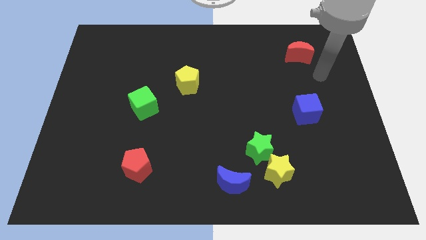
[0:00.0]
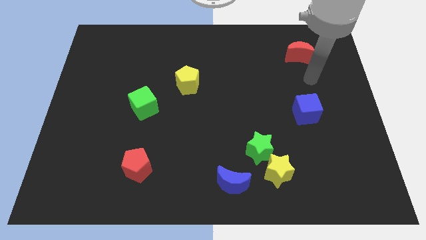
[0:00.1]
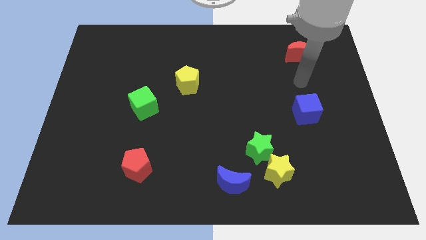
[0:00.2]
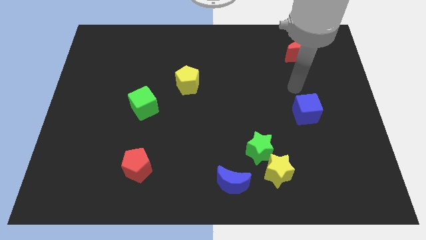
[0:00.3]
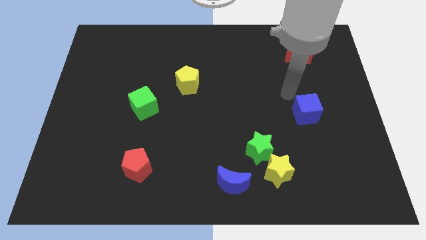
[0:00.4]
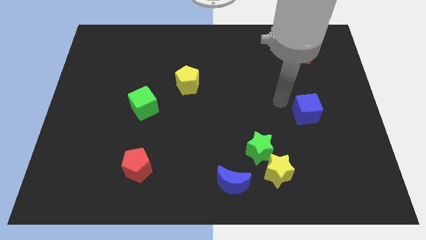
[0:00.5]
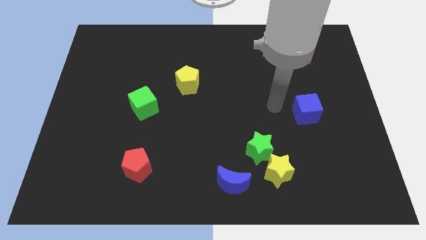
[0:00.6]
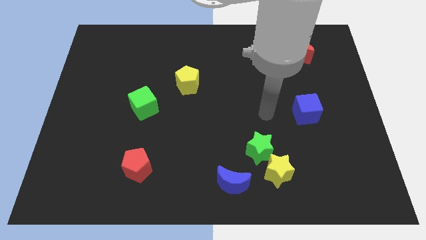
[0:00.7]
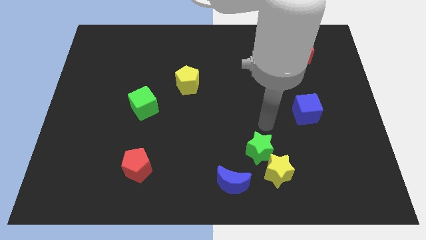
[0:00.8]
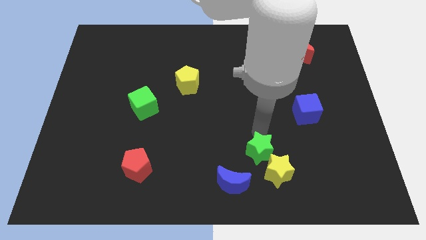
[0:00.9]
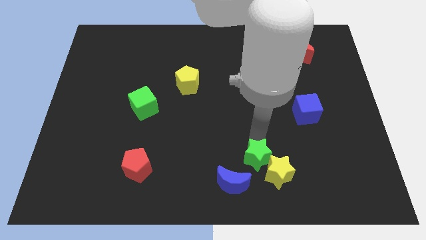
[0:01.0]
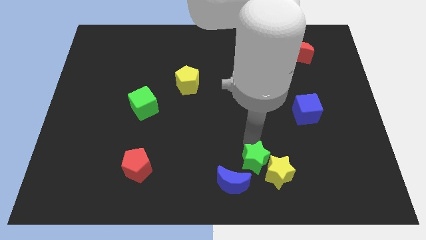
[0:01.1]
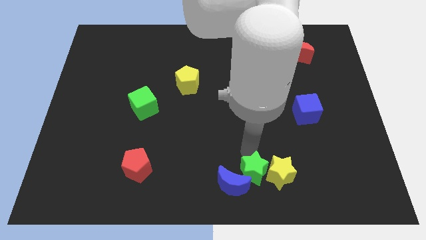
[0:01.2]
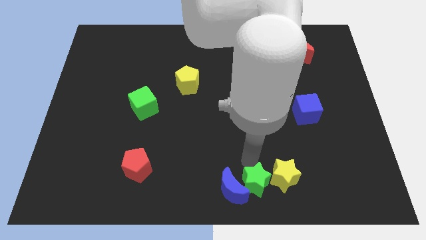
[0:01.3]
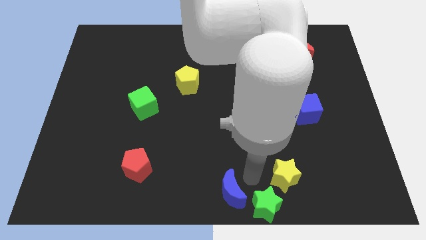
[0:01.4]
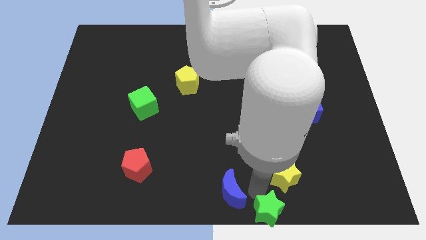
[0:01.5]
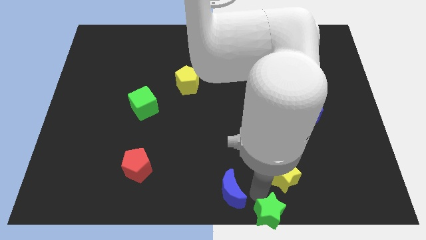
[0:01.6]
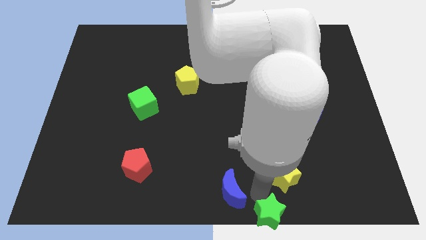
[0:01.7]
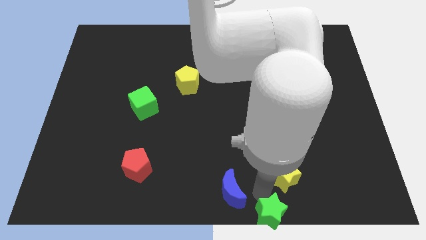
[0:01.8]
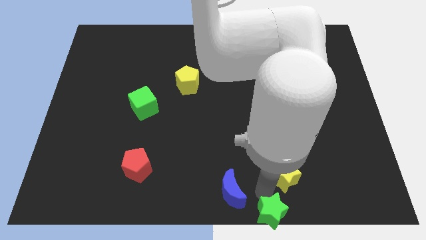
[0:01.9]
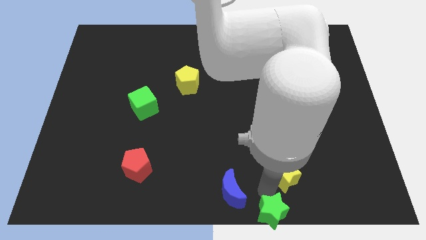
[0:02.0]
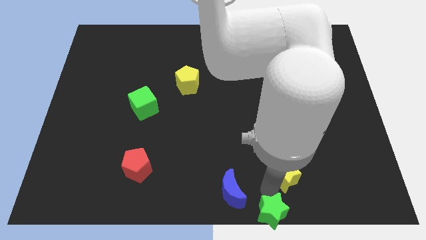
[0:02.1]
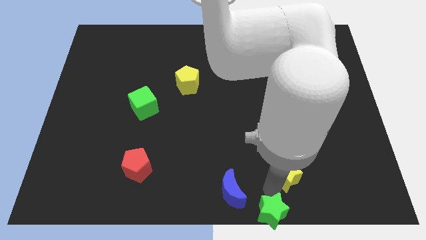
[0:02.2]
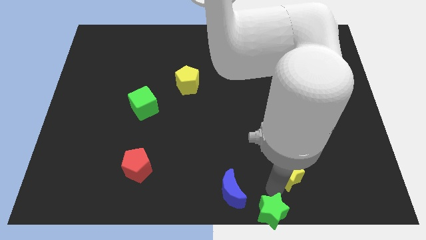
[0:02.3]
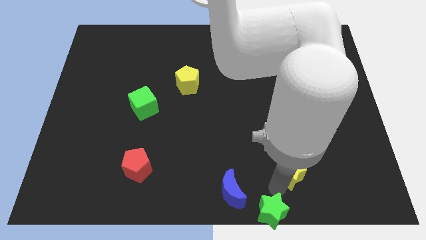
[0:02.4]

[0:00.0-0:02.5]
pull the yellow star apart from the green star and blue moon

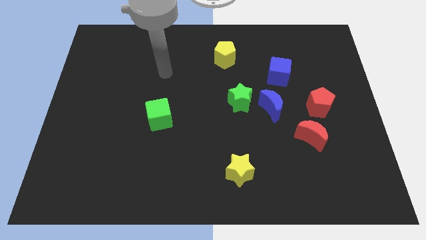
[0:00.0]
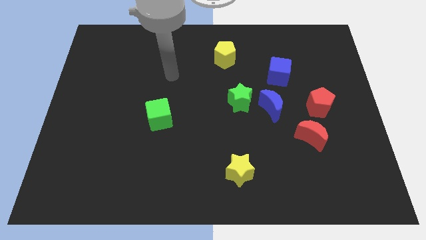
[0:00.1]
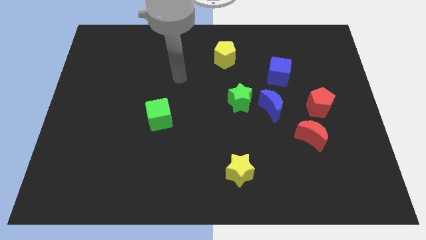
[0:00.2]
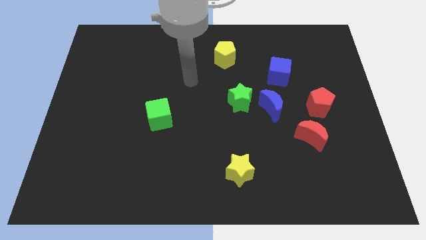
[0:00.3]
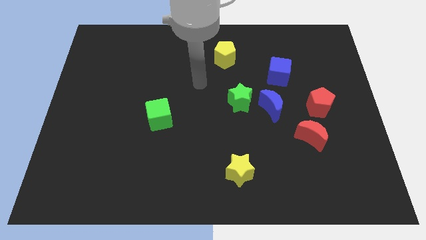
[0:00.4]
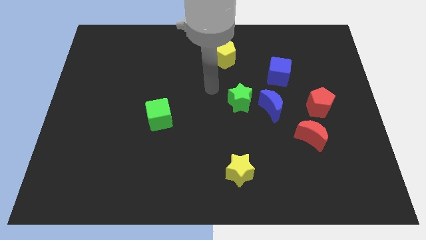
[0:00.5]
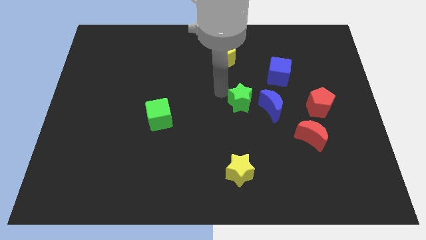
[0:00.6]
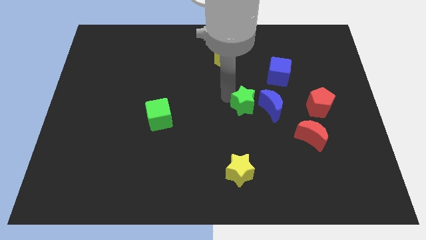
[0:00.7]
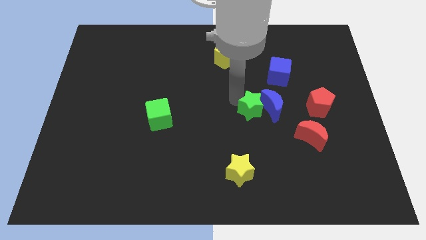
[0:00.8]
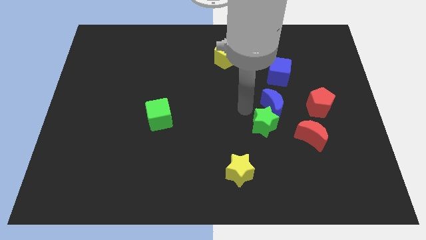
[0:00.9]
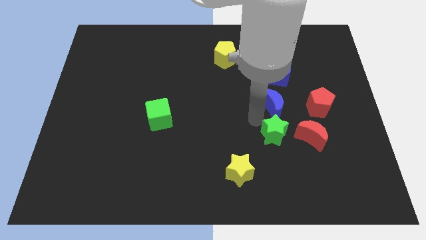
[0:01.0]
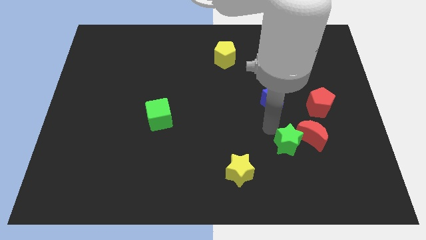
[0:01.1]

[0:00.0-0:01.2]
separate the blue moon from the green star

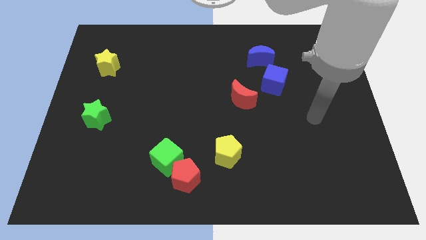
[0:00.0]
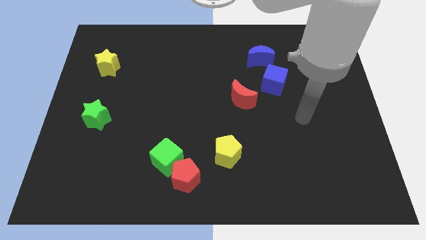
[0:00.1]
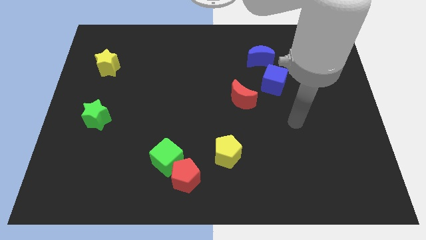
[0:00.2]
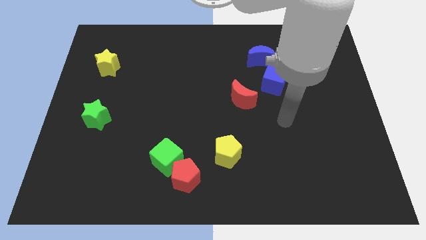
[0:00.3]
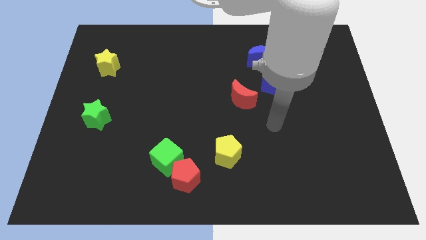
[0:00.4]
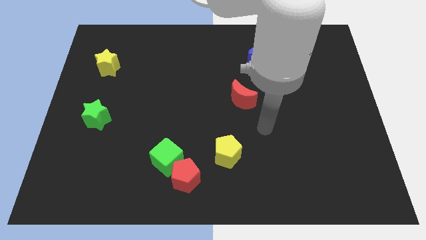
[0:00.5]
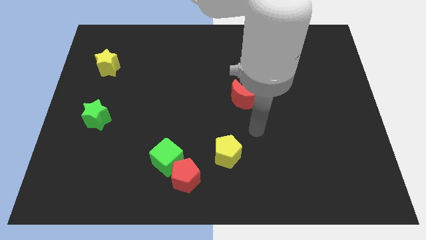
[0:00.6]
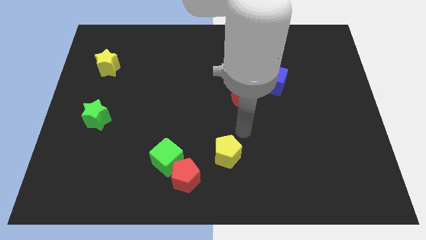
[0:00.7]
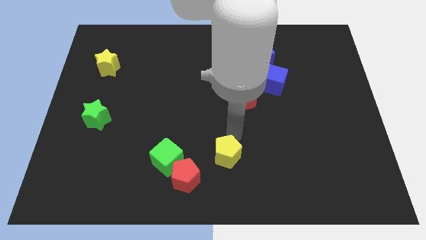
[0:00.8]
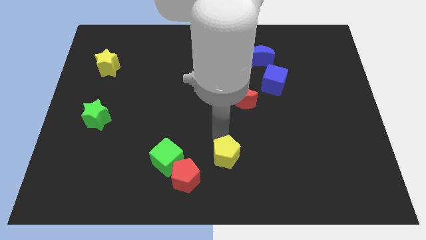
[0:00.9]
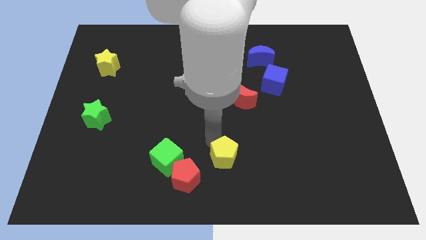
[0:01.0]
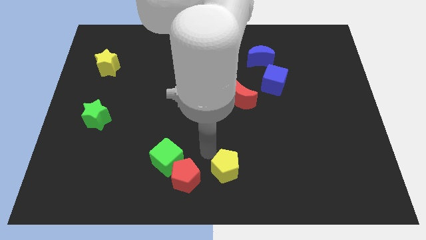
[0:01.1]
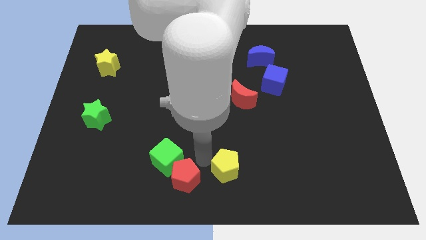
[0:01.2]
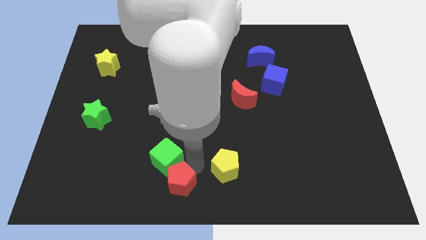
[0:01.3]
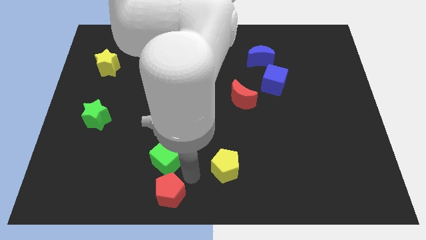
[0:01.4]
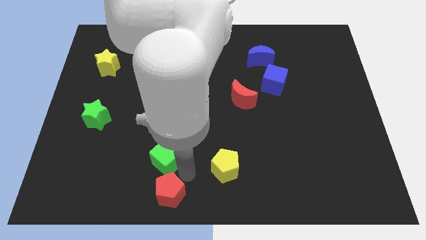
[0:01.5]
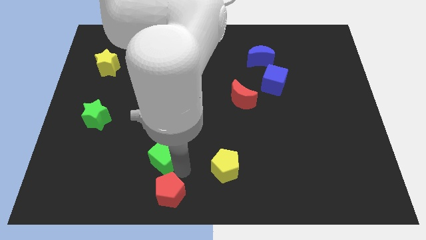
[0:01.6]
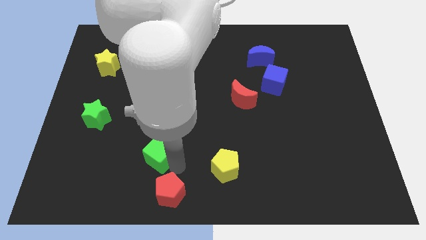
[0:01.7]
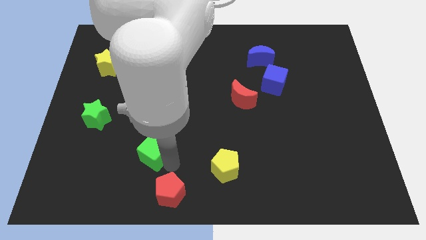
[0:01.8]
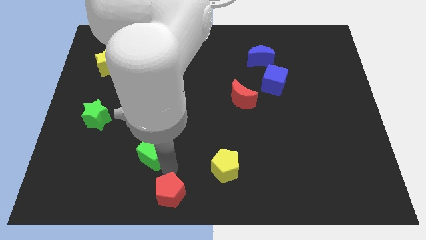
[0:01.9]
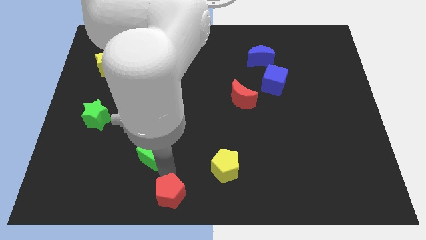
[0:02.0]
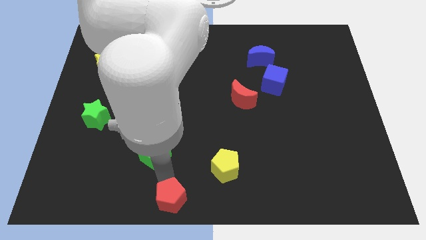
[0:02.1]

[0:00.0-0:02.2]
move the green cube away from the red pentagon

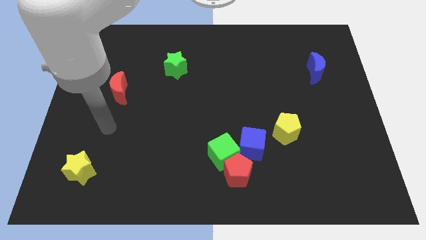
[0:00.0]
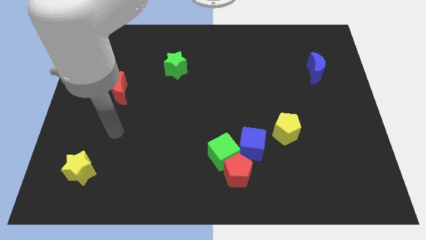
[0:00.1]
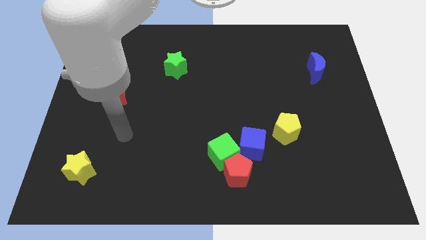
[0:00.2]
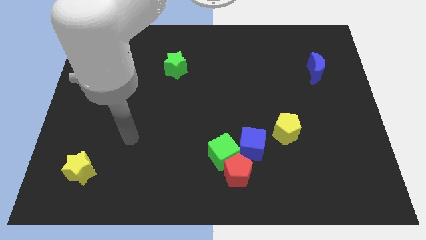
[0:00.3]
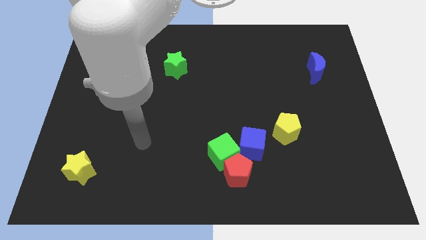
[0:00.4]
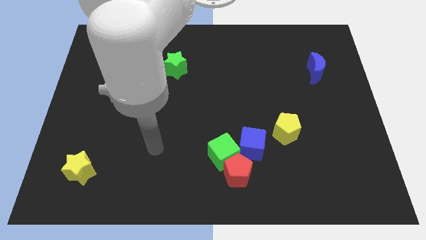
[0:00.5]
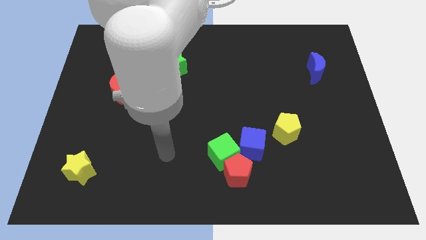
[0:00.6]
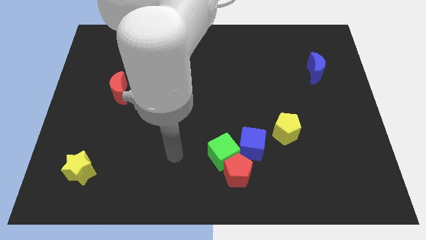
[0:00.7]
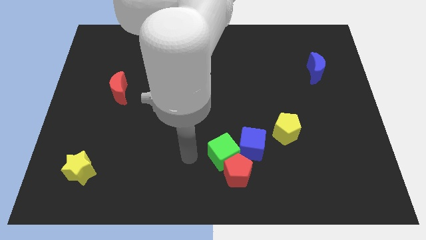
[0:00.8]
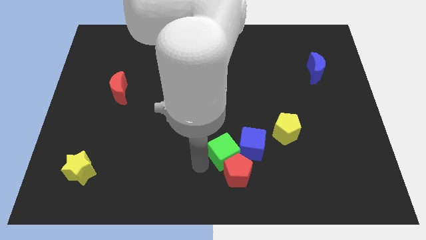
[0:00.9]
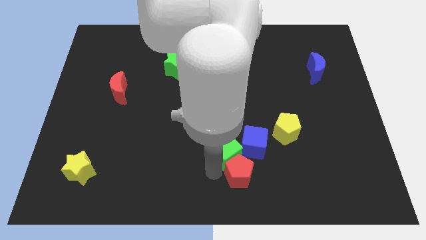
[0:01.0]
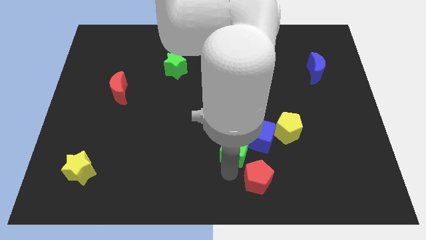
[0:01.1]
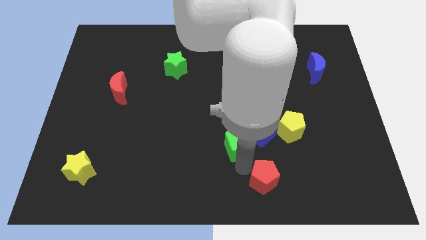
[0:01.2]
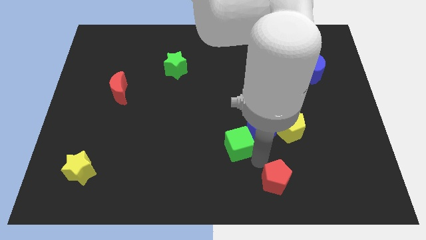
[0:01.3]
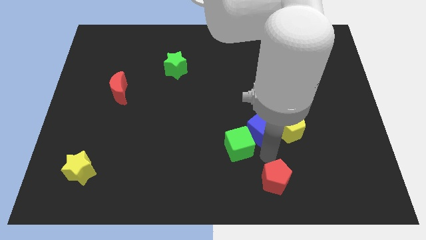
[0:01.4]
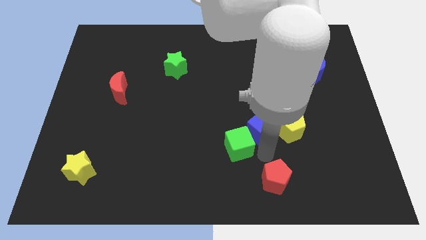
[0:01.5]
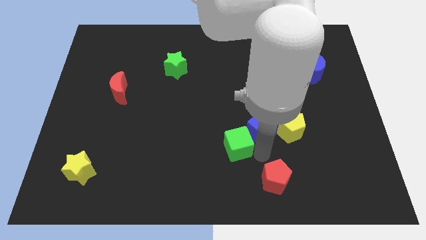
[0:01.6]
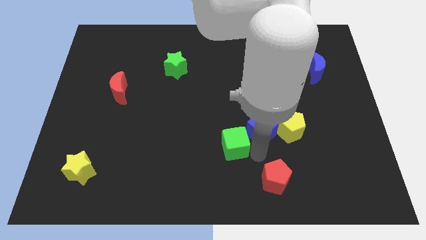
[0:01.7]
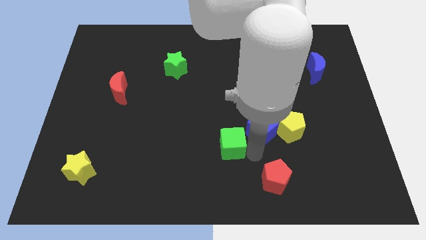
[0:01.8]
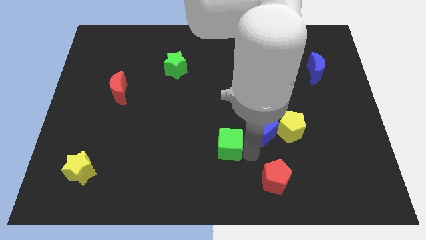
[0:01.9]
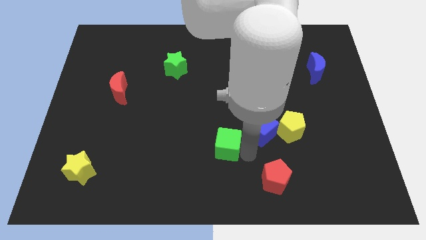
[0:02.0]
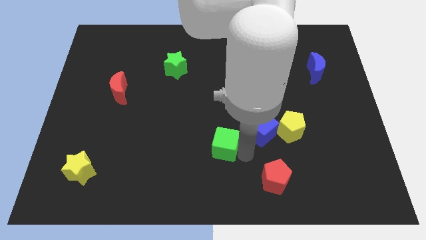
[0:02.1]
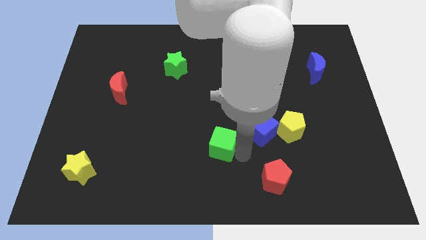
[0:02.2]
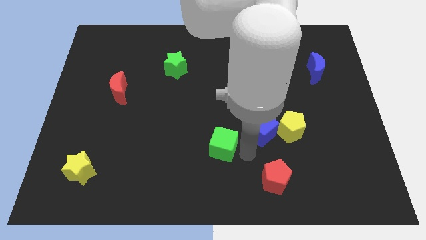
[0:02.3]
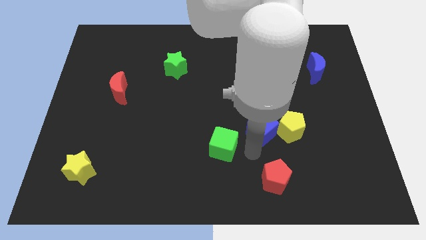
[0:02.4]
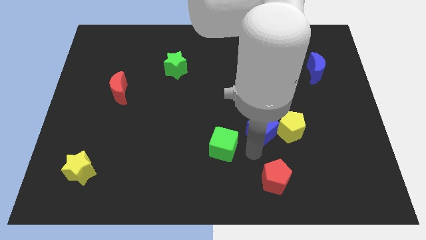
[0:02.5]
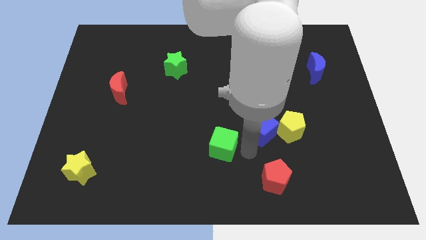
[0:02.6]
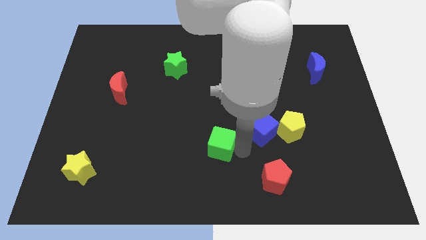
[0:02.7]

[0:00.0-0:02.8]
move the green cube away from the red pentagon and blue cube

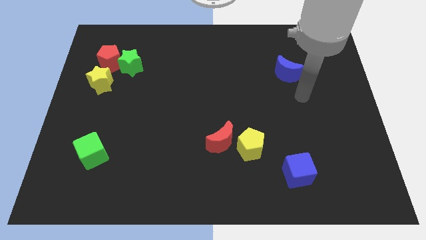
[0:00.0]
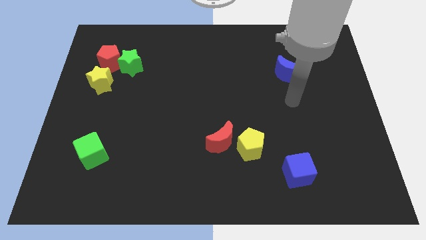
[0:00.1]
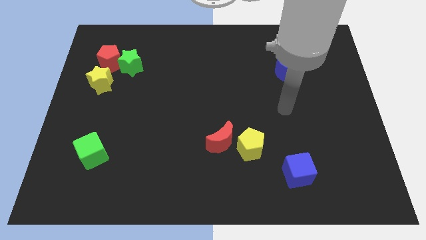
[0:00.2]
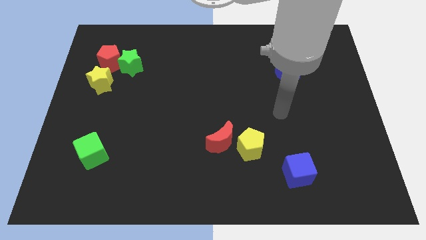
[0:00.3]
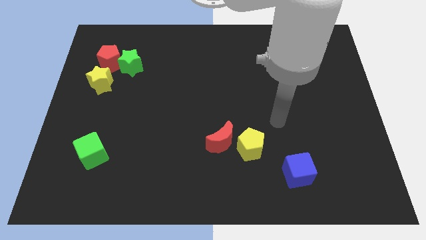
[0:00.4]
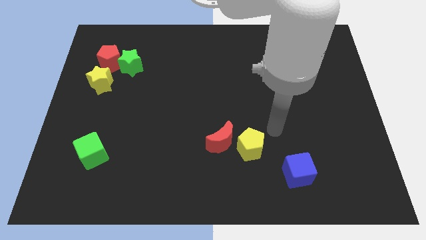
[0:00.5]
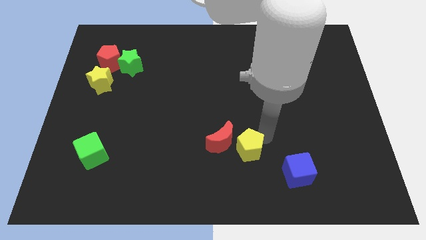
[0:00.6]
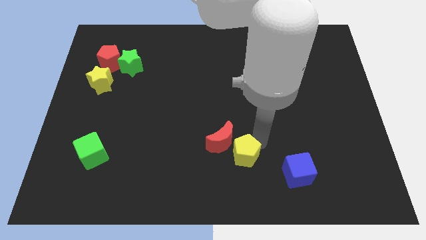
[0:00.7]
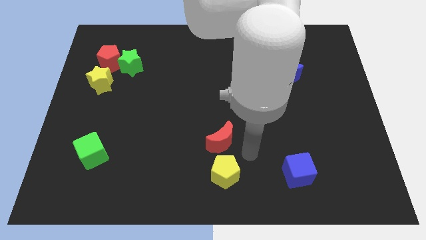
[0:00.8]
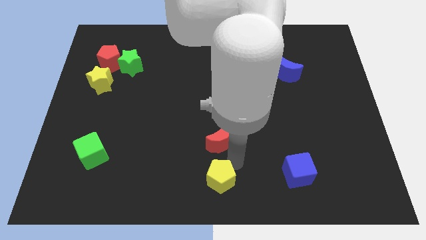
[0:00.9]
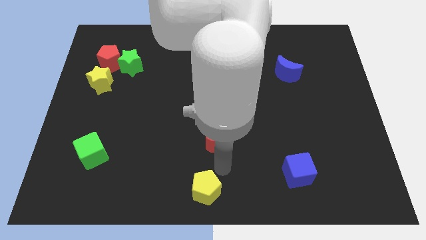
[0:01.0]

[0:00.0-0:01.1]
pull the red moon apart from the yellow pentagon
